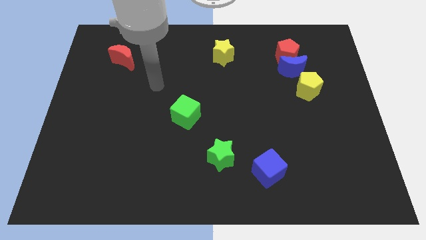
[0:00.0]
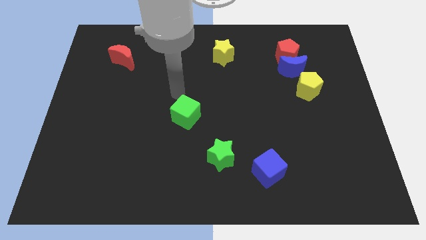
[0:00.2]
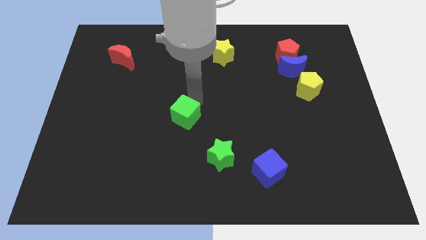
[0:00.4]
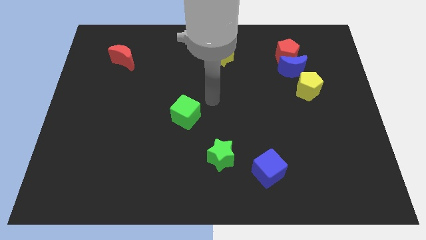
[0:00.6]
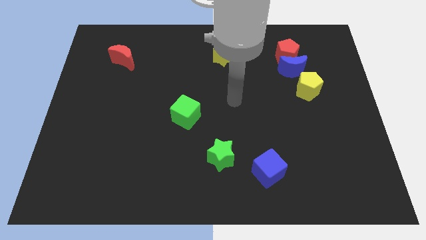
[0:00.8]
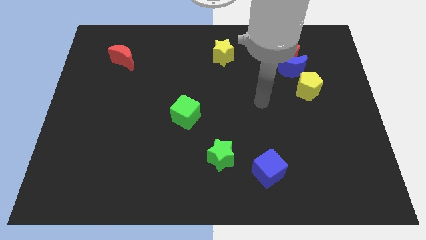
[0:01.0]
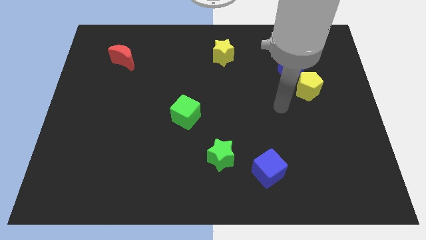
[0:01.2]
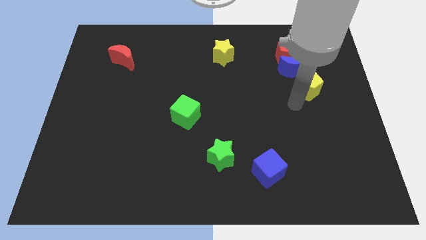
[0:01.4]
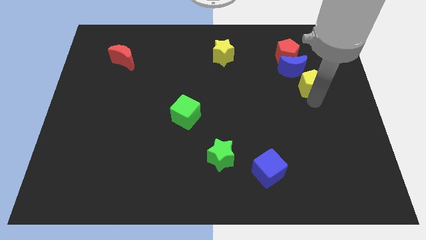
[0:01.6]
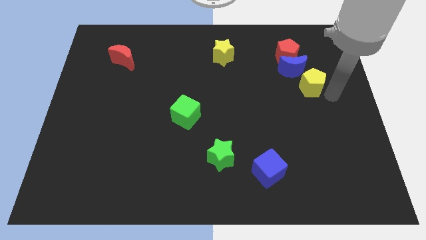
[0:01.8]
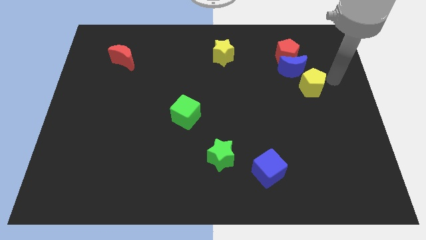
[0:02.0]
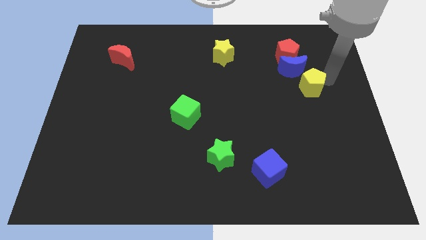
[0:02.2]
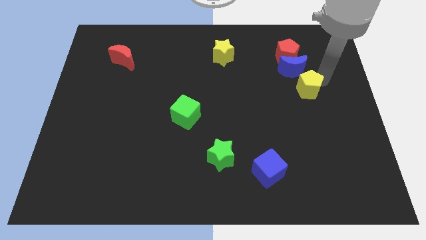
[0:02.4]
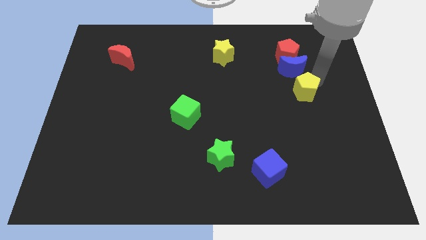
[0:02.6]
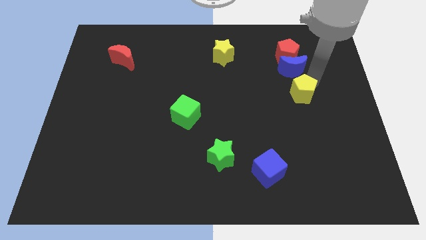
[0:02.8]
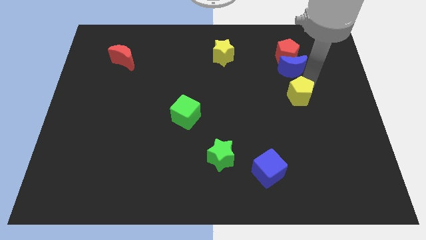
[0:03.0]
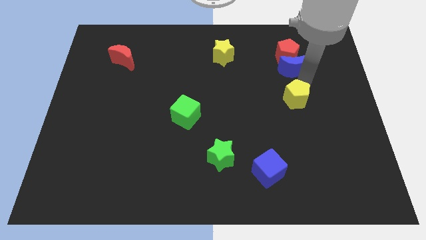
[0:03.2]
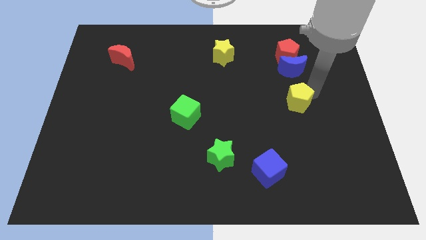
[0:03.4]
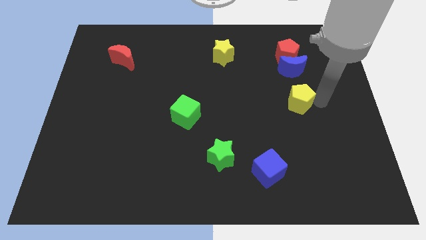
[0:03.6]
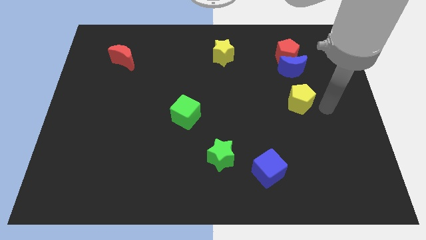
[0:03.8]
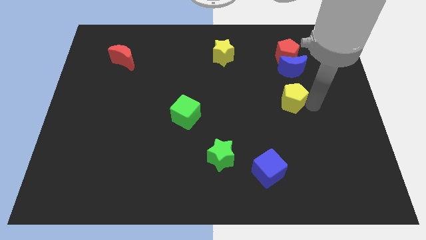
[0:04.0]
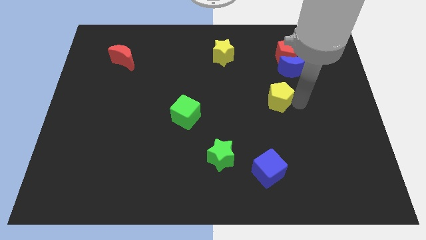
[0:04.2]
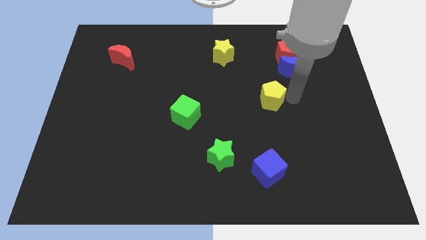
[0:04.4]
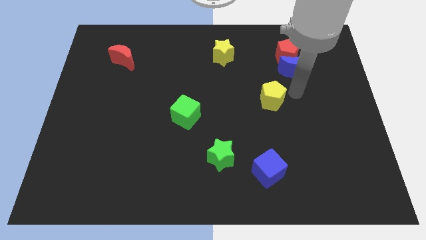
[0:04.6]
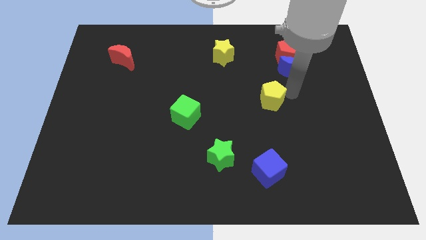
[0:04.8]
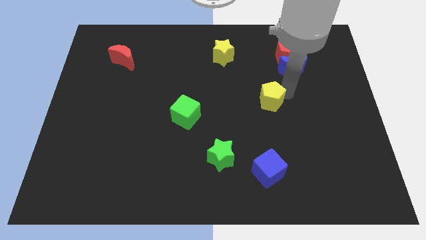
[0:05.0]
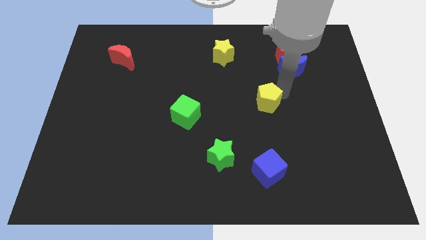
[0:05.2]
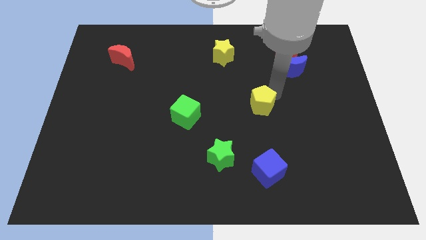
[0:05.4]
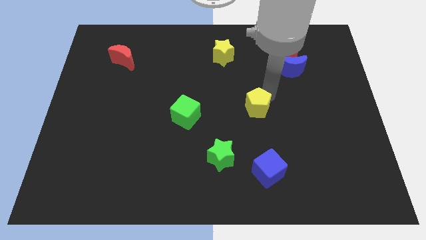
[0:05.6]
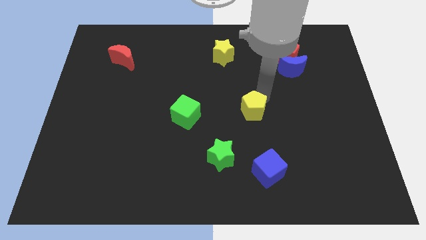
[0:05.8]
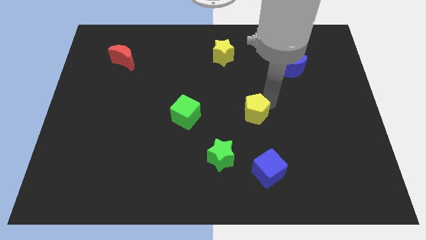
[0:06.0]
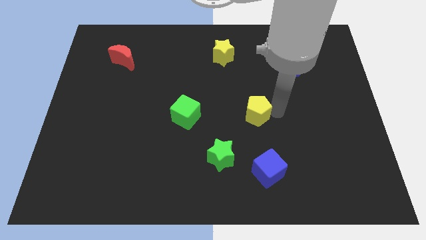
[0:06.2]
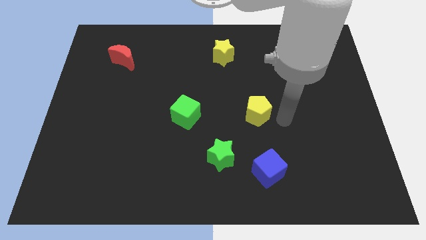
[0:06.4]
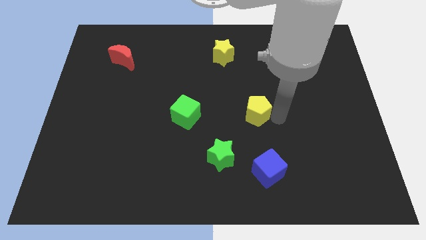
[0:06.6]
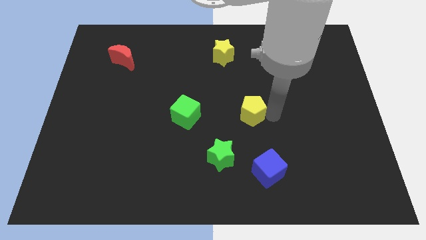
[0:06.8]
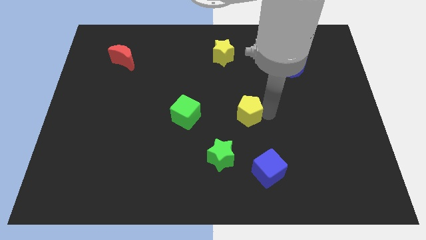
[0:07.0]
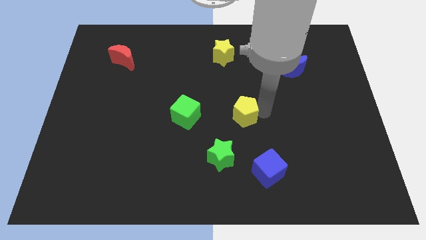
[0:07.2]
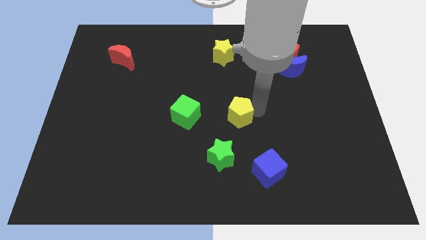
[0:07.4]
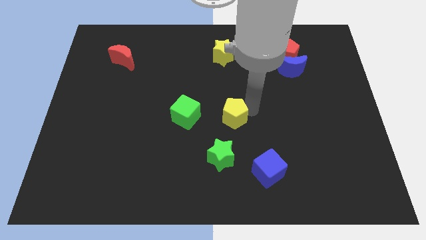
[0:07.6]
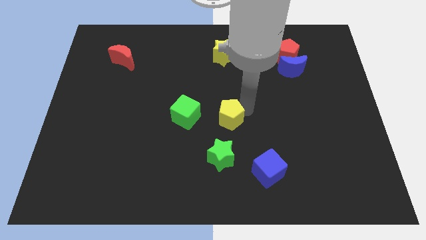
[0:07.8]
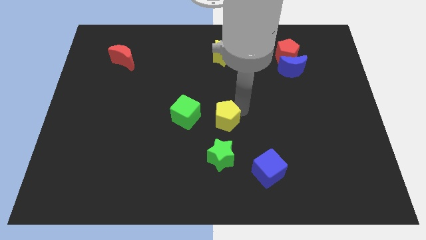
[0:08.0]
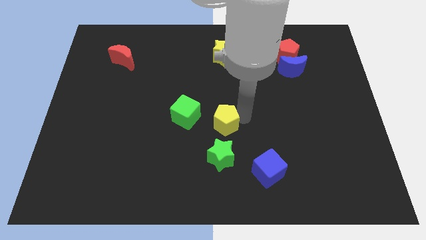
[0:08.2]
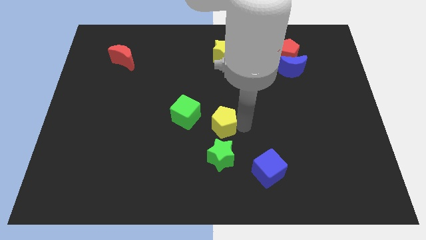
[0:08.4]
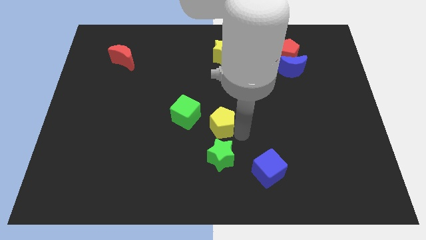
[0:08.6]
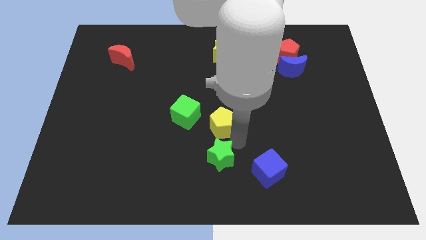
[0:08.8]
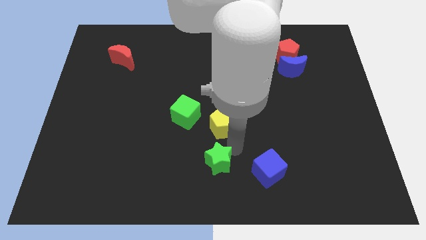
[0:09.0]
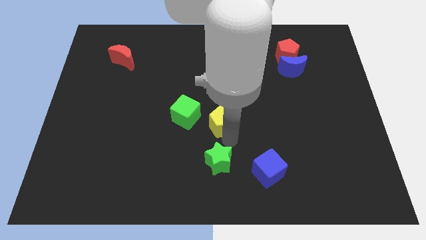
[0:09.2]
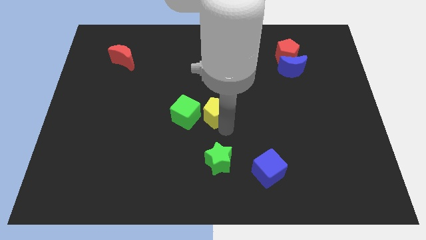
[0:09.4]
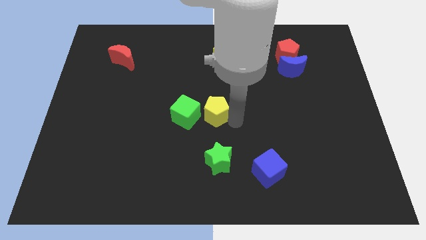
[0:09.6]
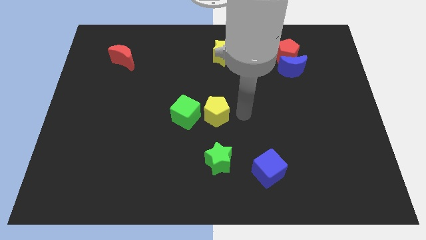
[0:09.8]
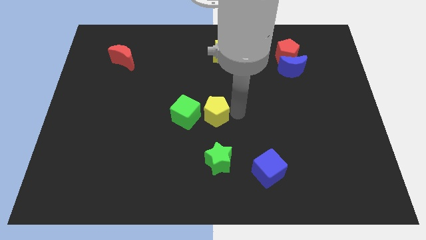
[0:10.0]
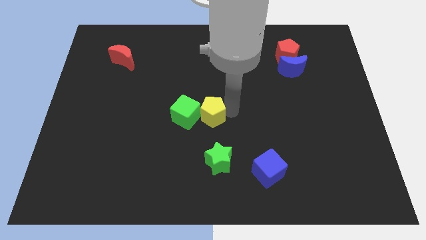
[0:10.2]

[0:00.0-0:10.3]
slide the yellow pentagon towards the green cube
